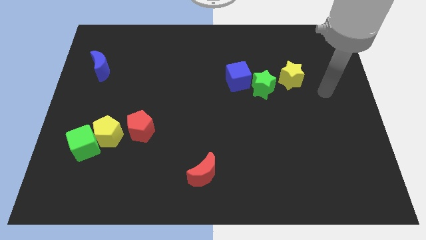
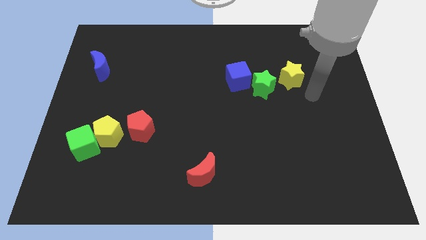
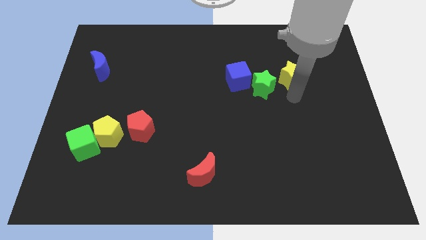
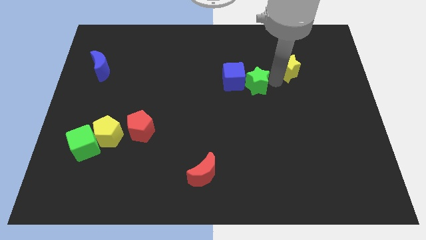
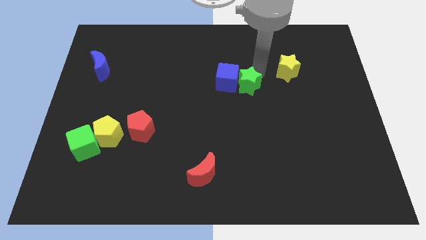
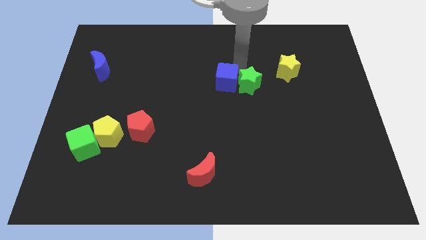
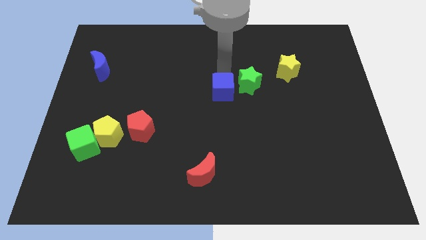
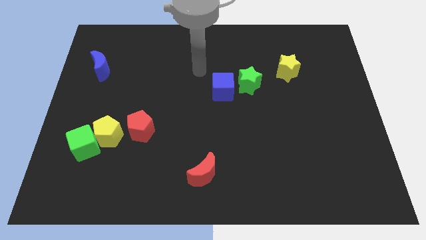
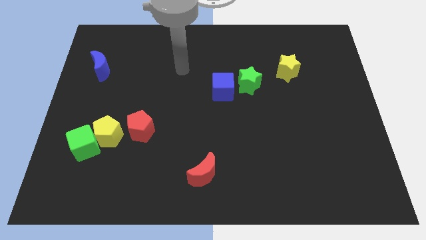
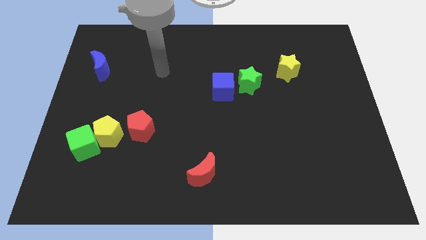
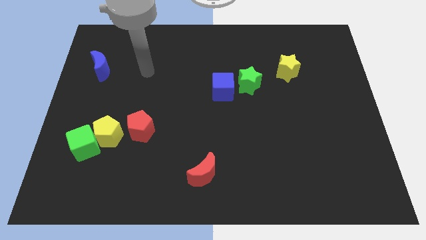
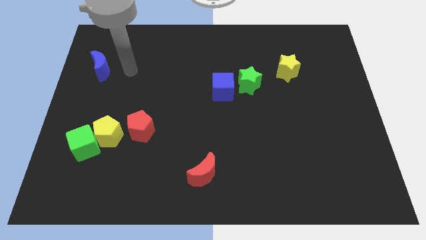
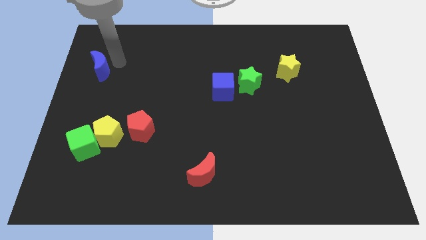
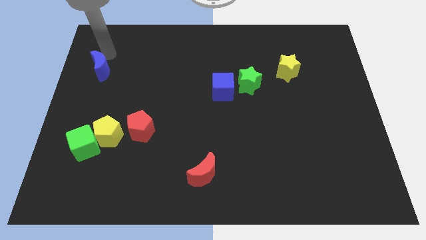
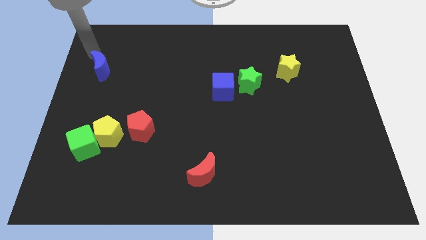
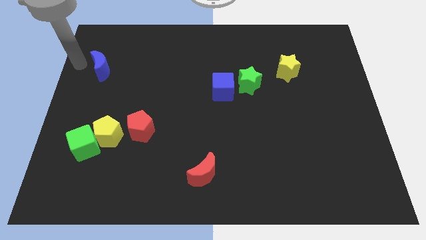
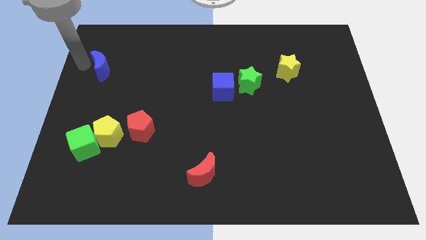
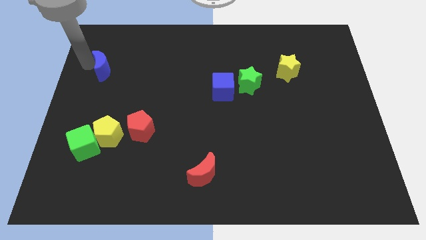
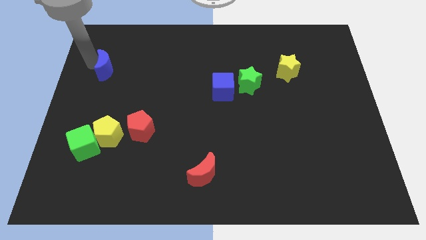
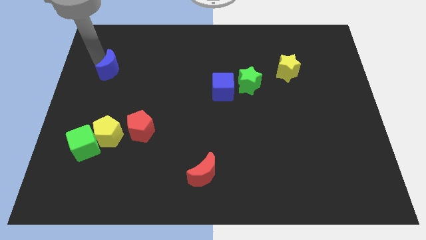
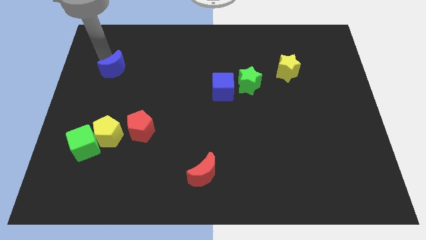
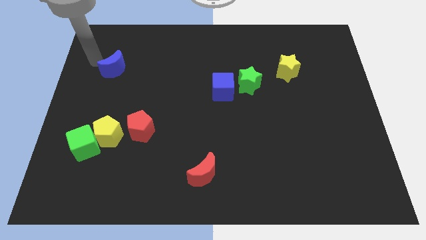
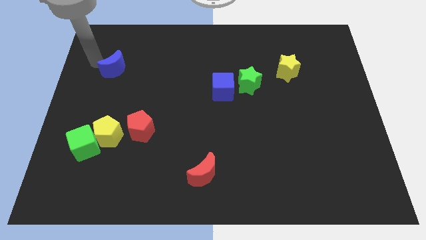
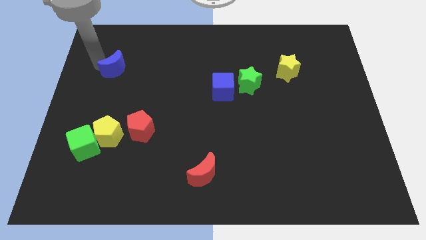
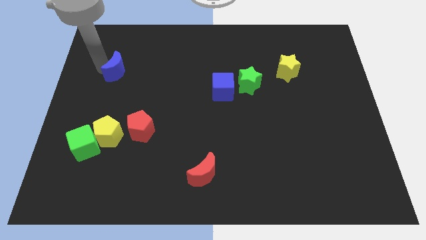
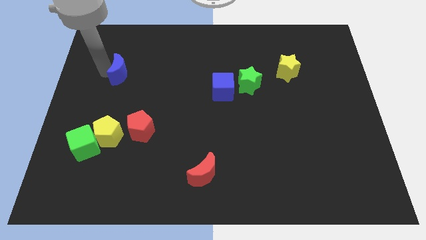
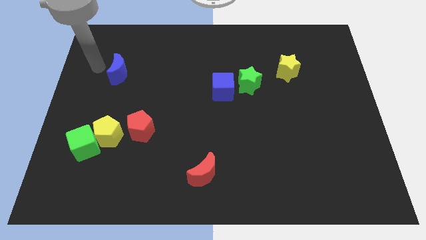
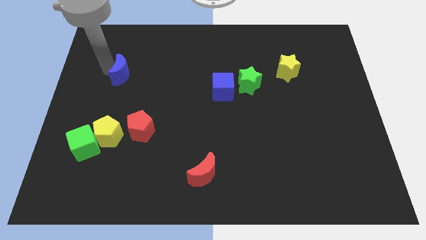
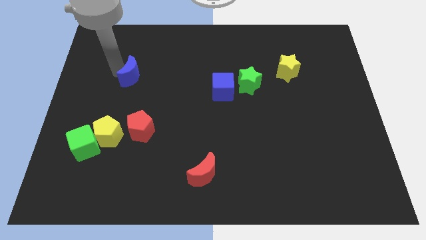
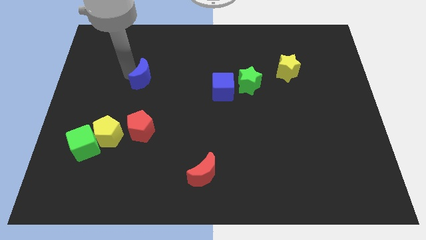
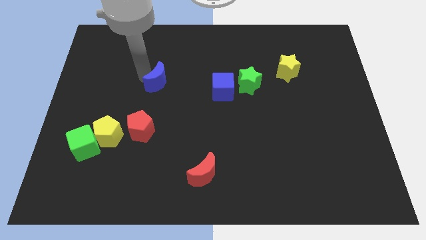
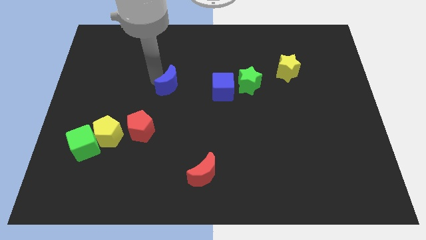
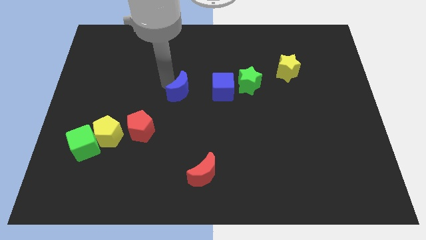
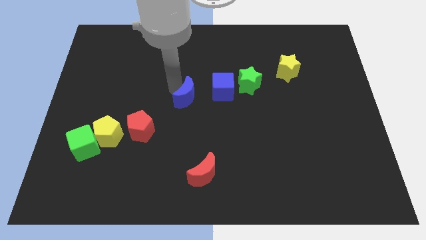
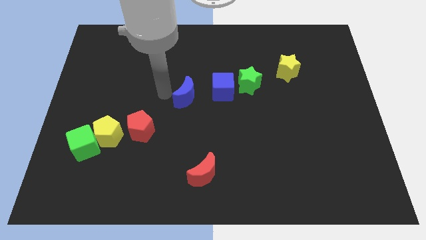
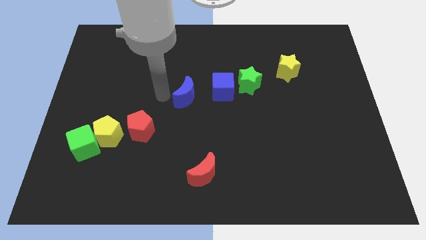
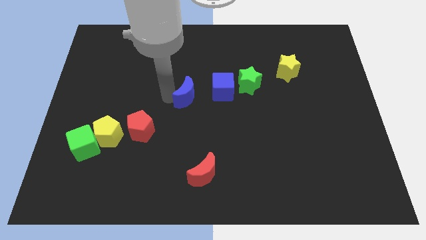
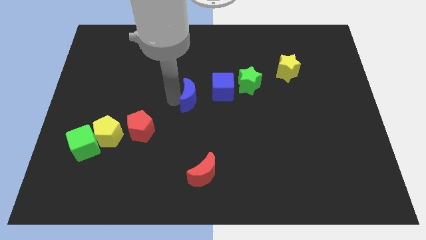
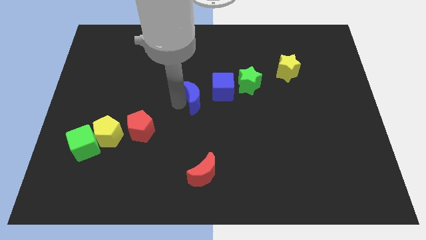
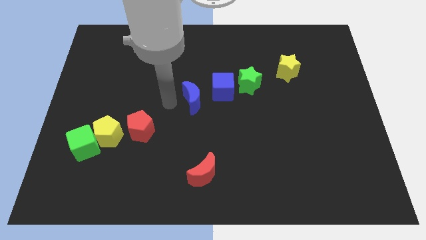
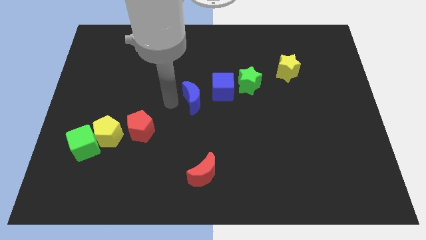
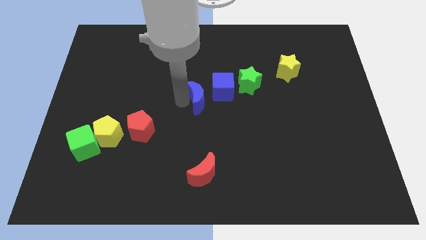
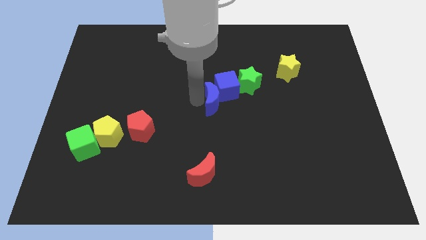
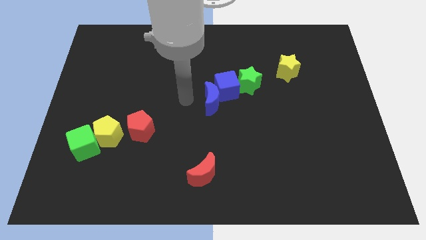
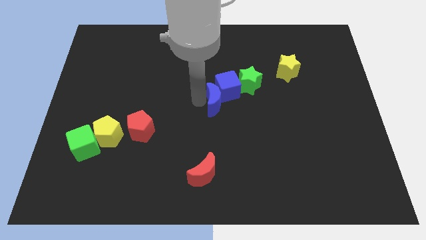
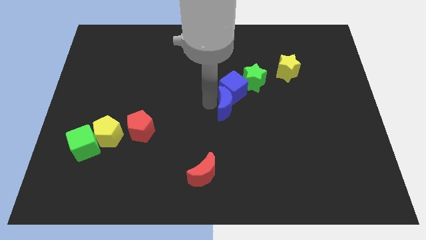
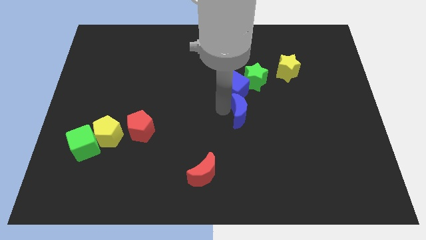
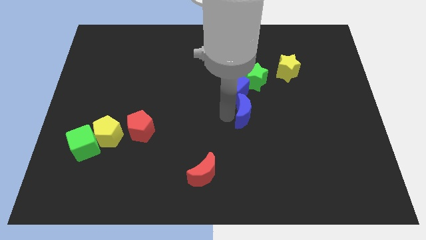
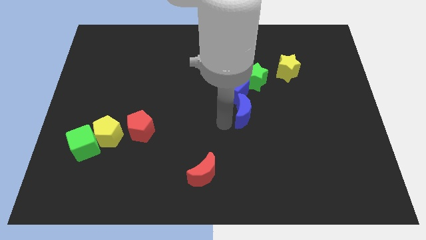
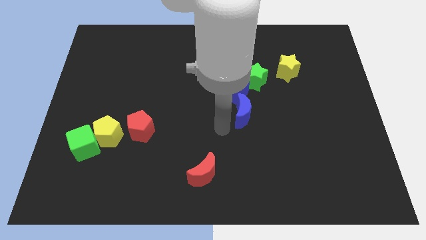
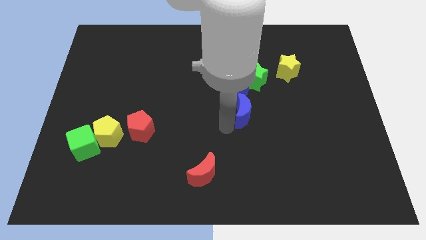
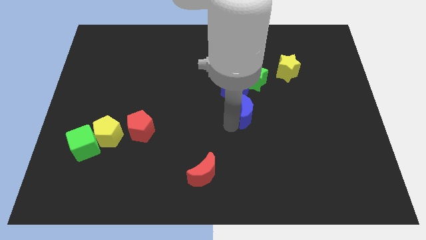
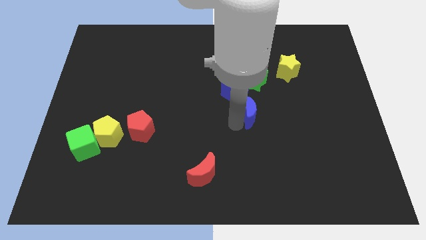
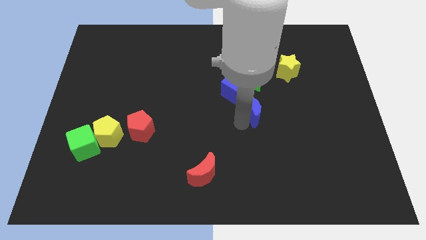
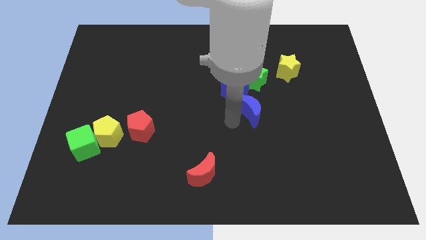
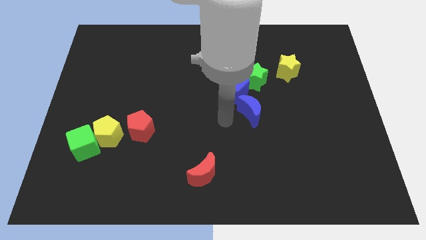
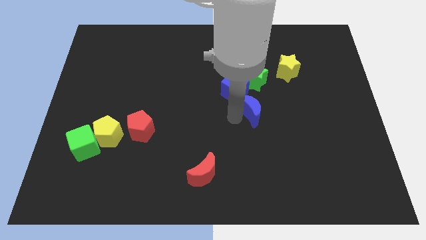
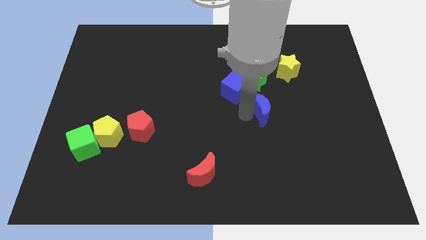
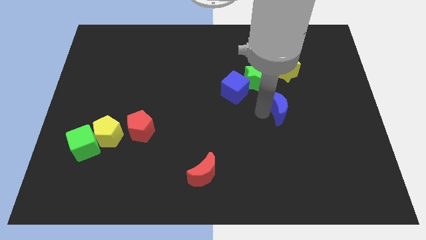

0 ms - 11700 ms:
put the blue moon to the bottom of the yellow star
